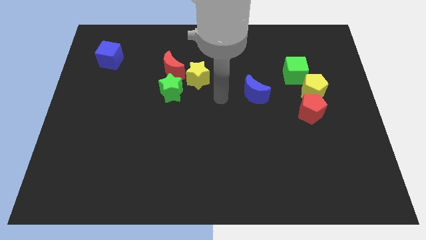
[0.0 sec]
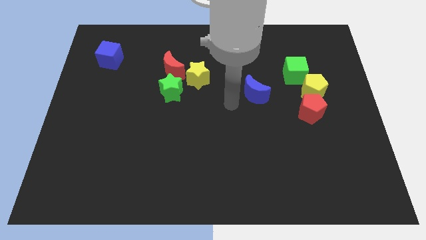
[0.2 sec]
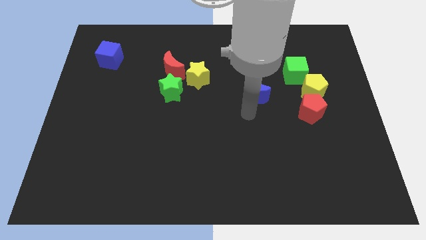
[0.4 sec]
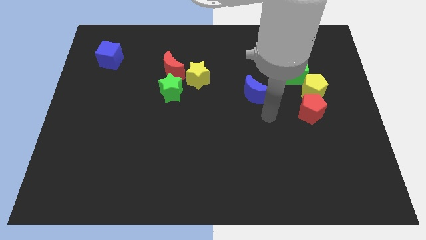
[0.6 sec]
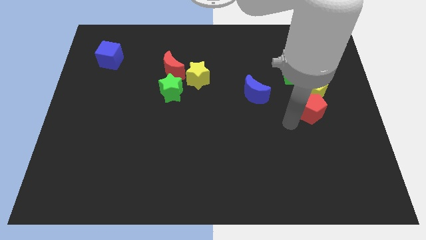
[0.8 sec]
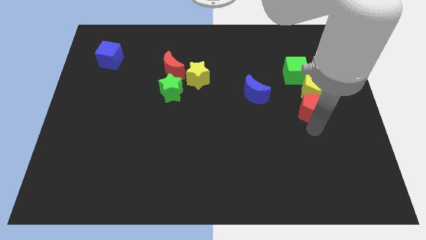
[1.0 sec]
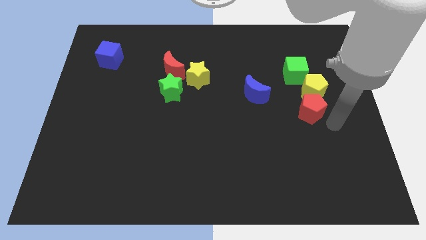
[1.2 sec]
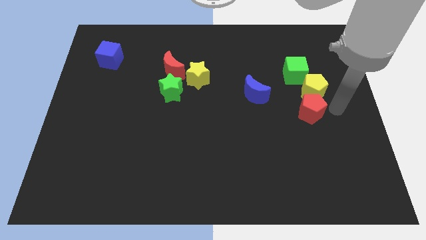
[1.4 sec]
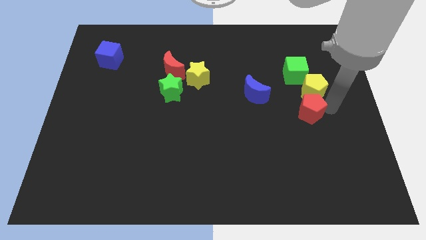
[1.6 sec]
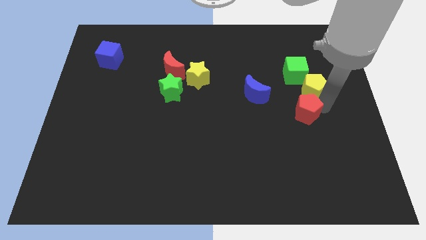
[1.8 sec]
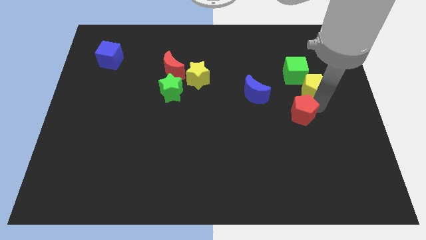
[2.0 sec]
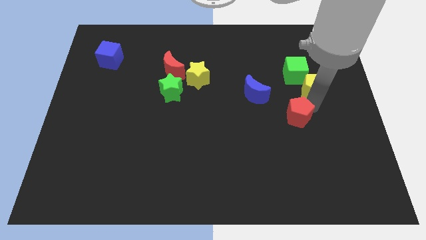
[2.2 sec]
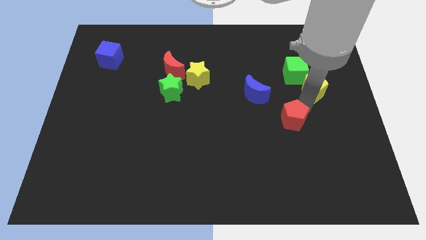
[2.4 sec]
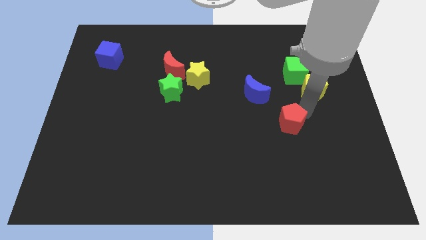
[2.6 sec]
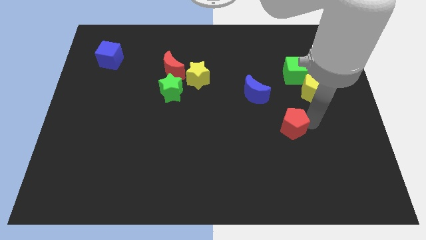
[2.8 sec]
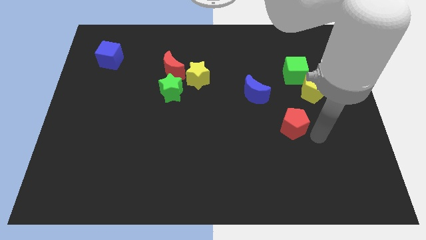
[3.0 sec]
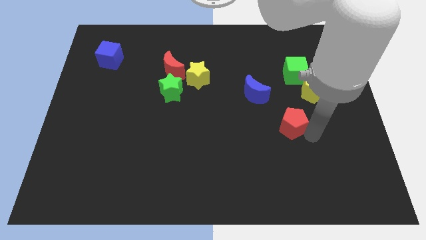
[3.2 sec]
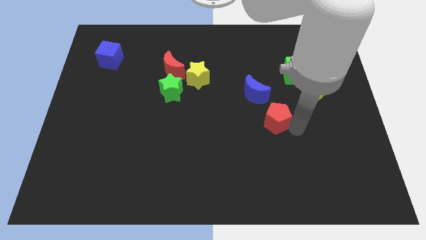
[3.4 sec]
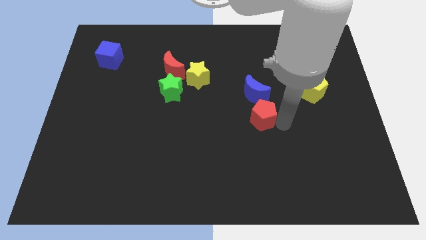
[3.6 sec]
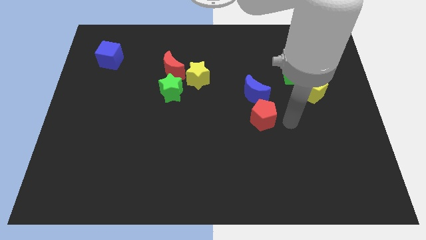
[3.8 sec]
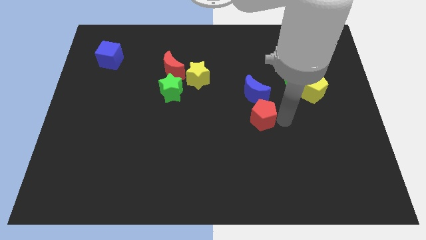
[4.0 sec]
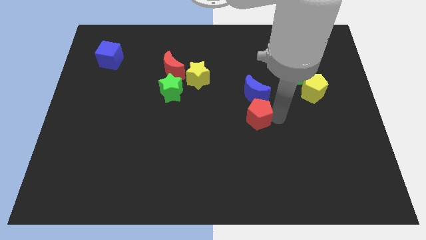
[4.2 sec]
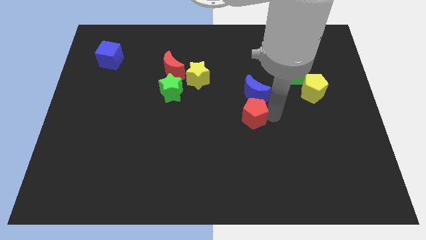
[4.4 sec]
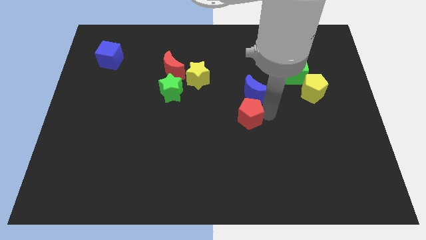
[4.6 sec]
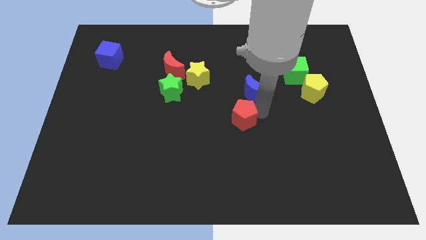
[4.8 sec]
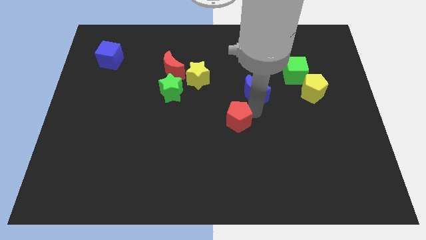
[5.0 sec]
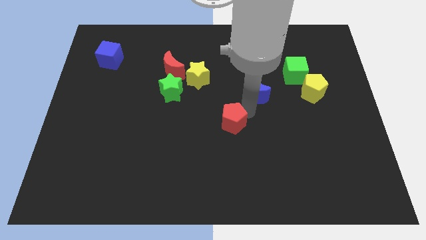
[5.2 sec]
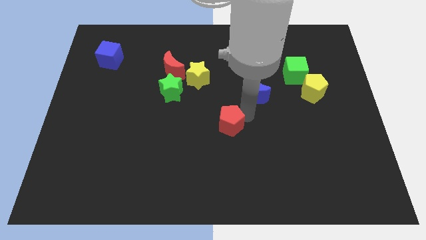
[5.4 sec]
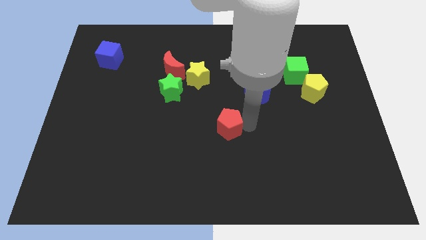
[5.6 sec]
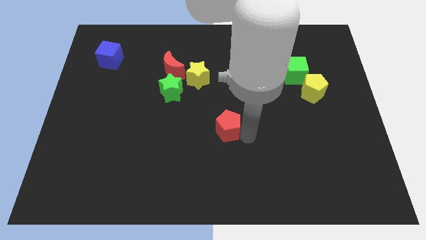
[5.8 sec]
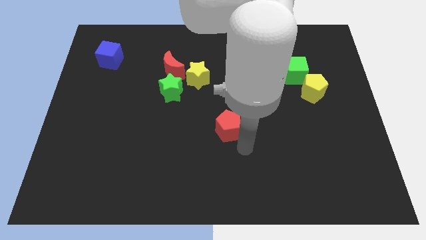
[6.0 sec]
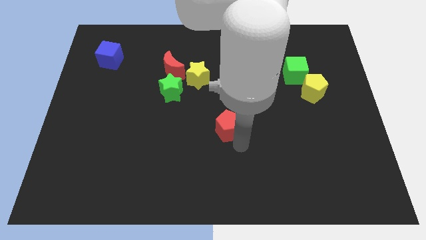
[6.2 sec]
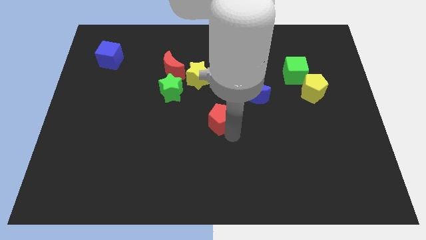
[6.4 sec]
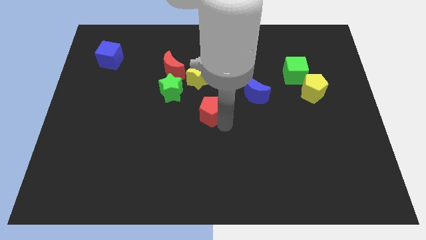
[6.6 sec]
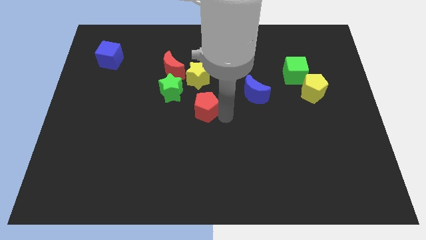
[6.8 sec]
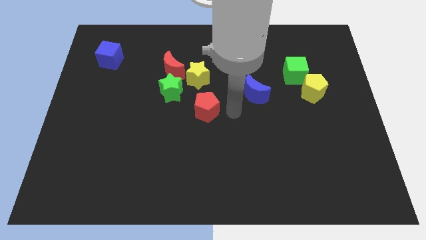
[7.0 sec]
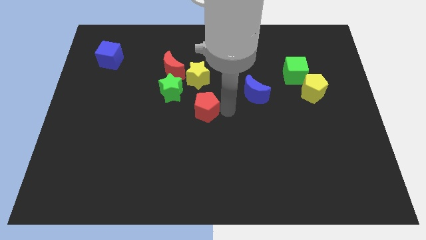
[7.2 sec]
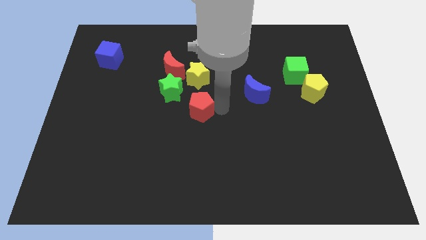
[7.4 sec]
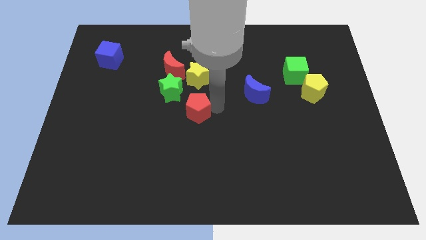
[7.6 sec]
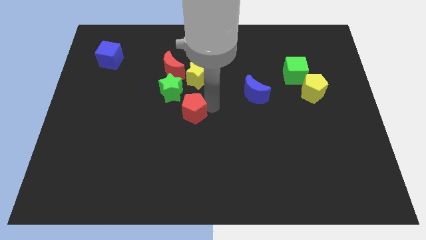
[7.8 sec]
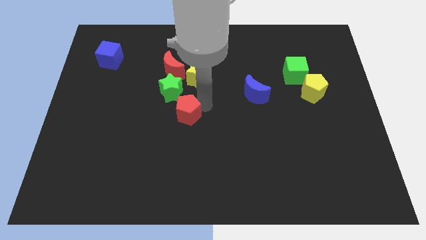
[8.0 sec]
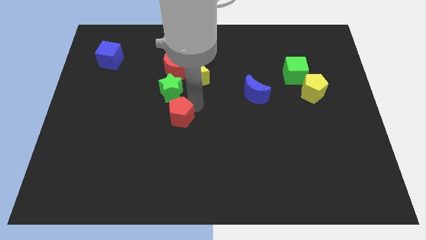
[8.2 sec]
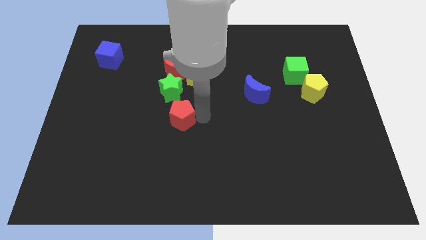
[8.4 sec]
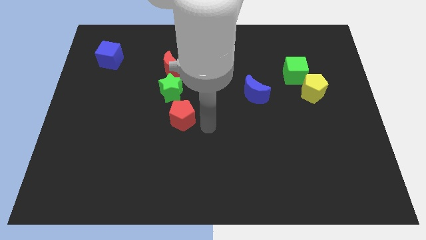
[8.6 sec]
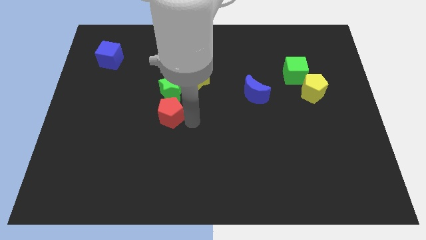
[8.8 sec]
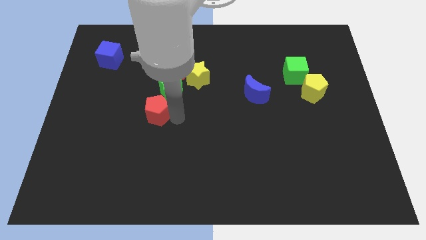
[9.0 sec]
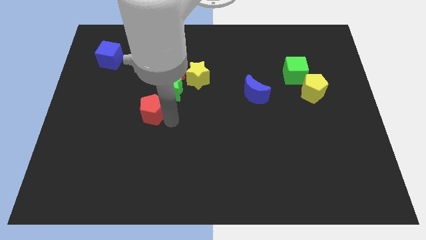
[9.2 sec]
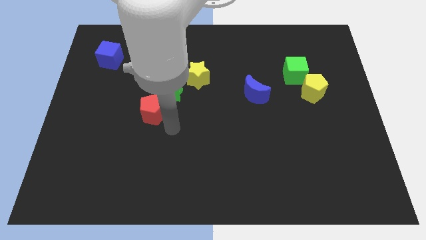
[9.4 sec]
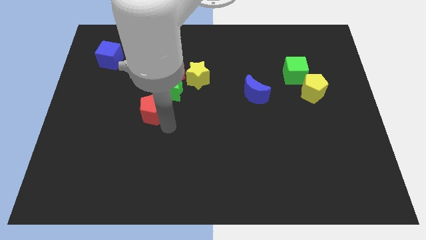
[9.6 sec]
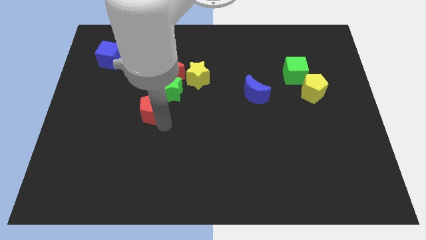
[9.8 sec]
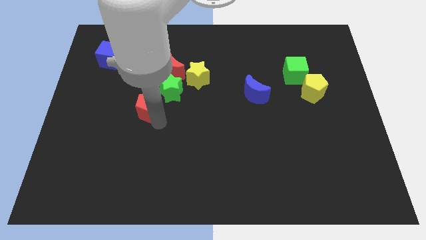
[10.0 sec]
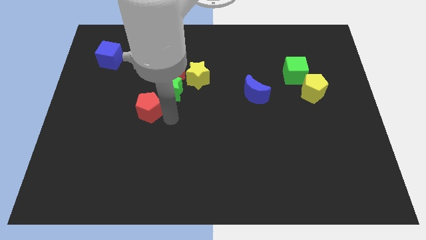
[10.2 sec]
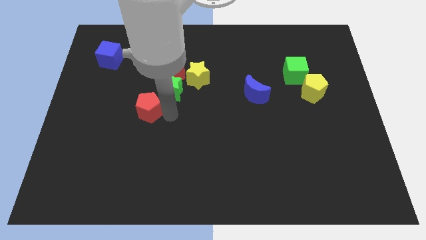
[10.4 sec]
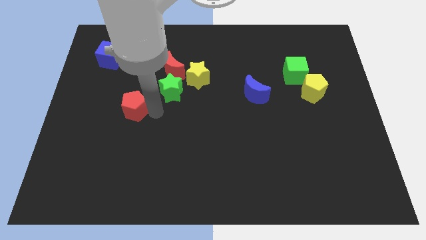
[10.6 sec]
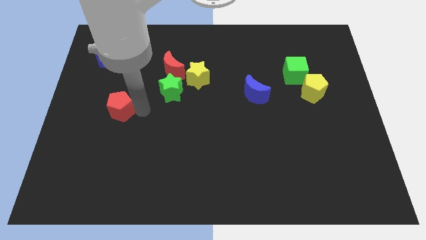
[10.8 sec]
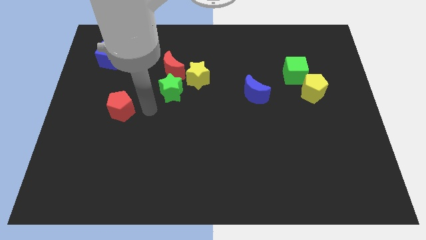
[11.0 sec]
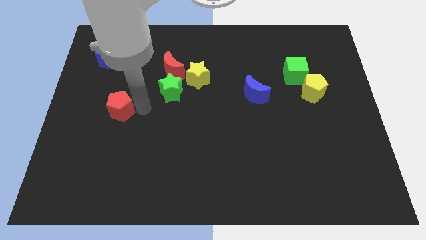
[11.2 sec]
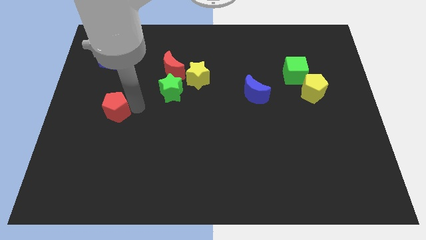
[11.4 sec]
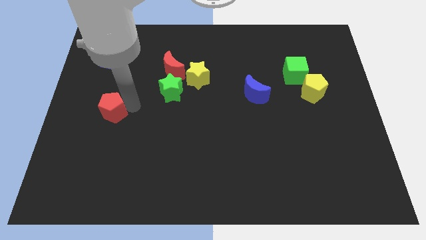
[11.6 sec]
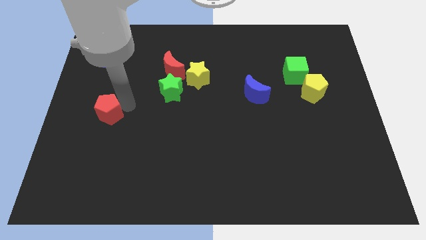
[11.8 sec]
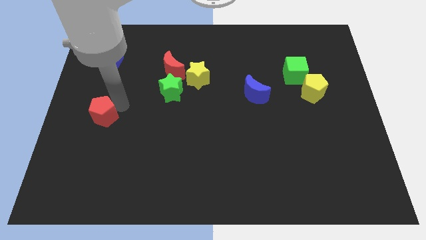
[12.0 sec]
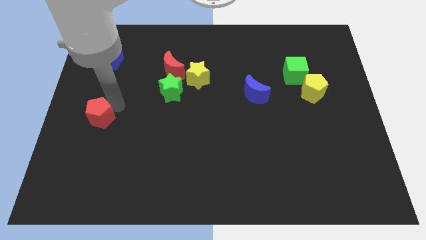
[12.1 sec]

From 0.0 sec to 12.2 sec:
push the red pentagon to the center left

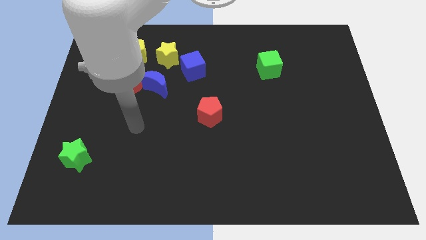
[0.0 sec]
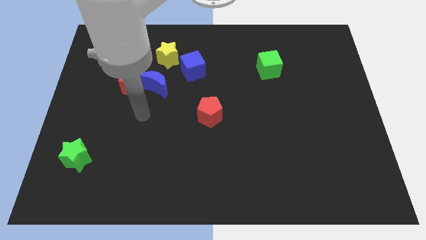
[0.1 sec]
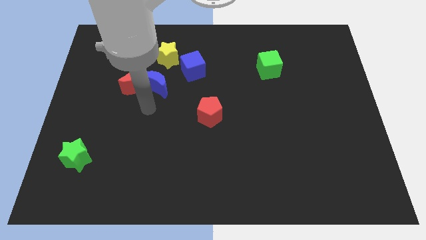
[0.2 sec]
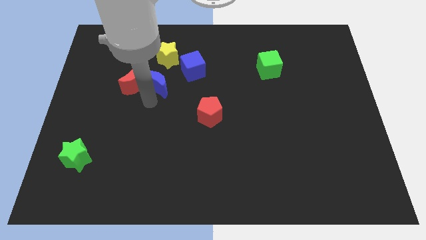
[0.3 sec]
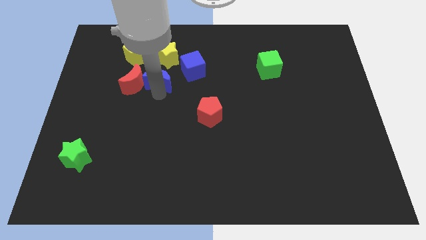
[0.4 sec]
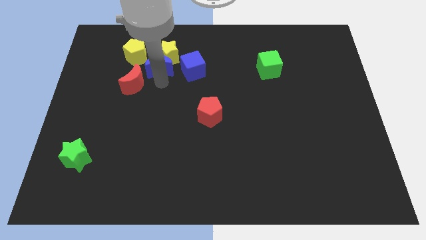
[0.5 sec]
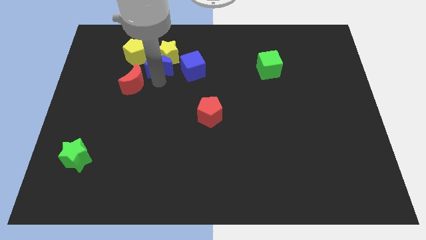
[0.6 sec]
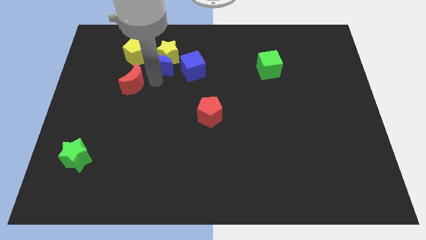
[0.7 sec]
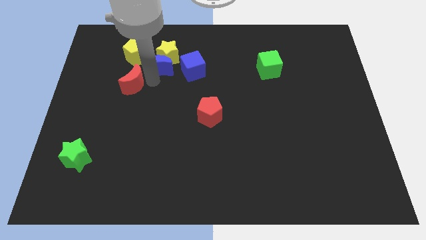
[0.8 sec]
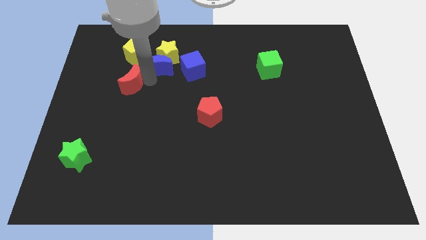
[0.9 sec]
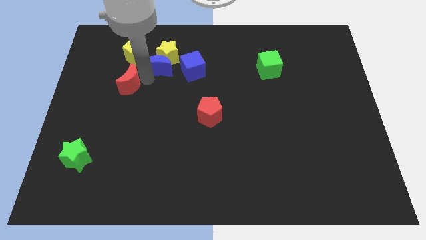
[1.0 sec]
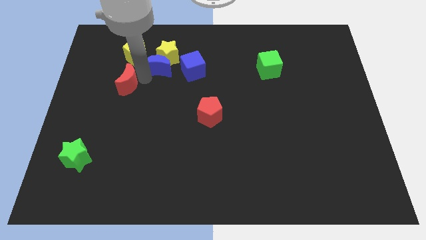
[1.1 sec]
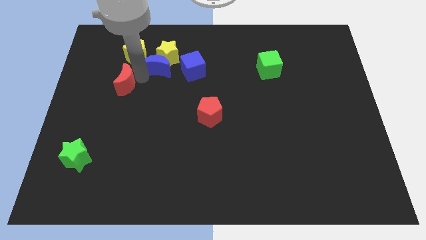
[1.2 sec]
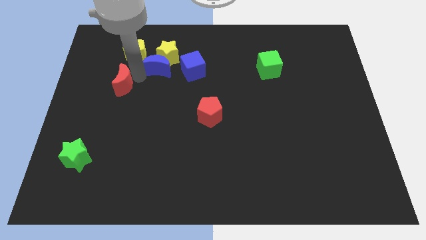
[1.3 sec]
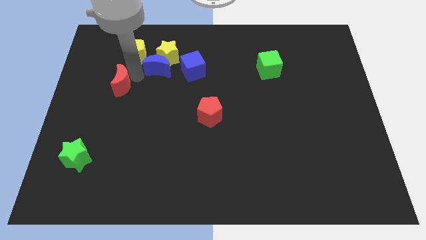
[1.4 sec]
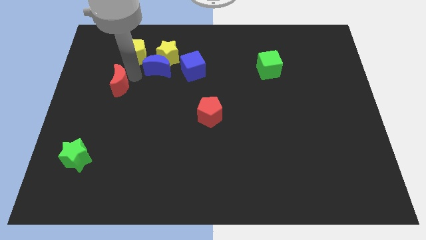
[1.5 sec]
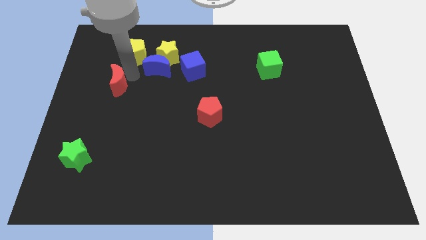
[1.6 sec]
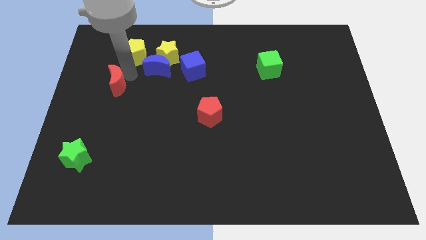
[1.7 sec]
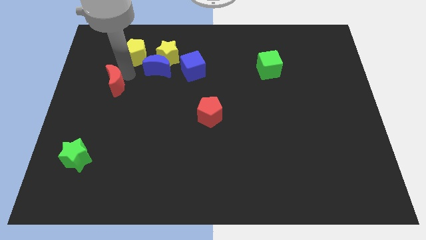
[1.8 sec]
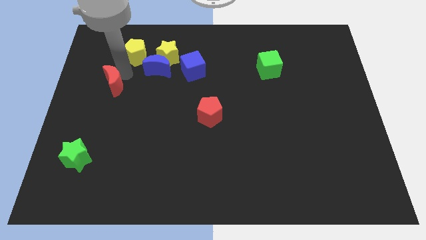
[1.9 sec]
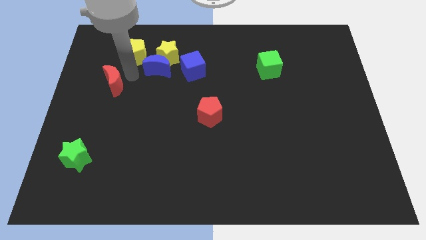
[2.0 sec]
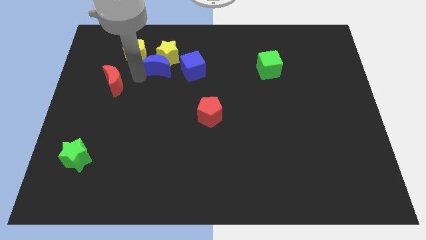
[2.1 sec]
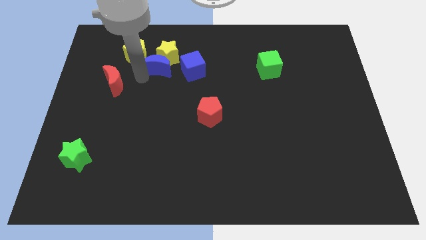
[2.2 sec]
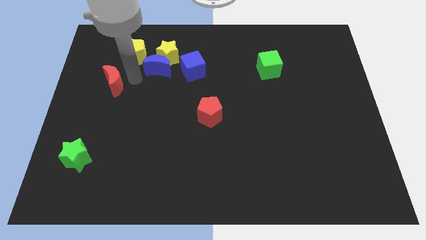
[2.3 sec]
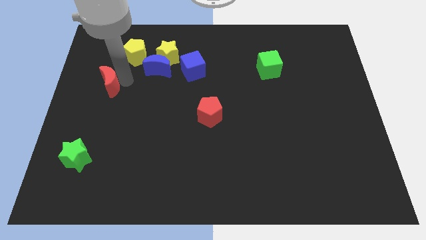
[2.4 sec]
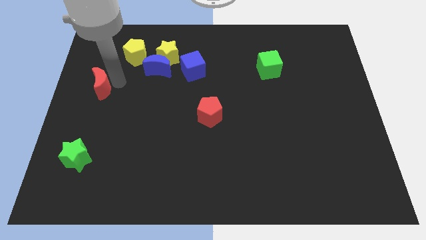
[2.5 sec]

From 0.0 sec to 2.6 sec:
move the red moon to the center left
